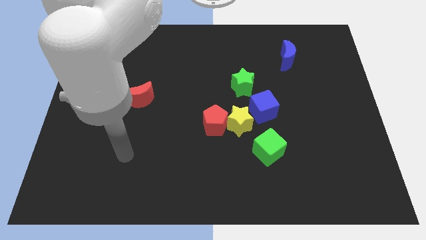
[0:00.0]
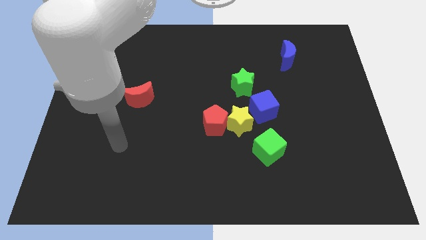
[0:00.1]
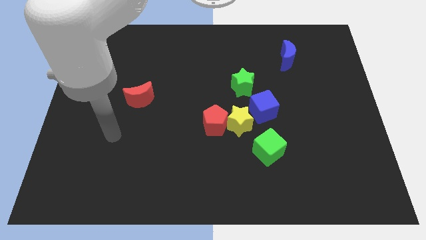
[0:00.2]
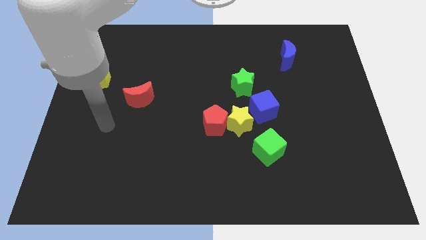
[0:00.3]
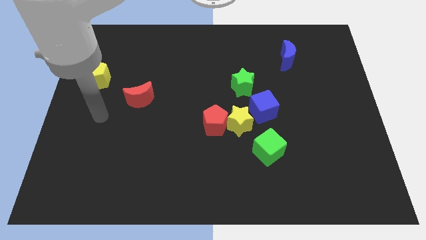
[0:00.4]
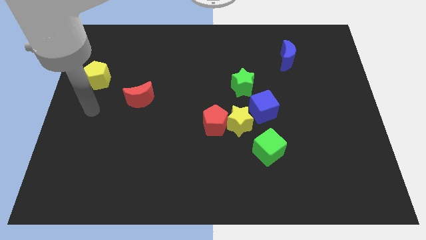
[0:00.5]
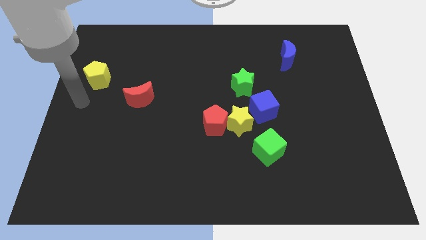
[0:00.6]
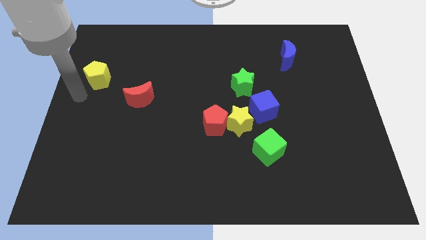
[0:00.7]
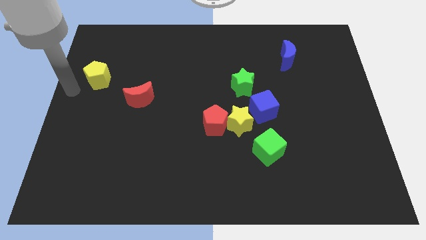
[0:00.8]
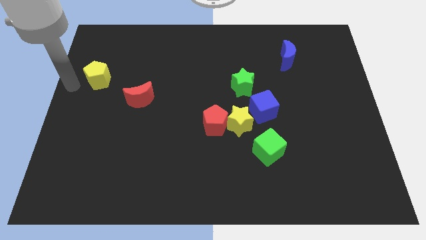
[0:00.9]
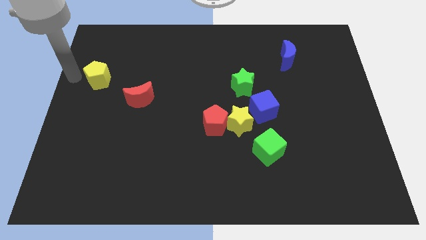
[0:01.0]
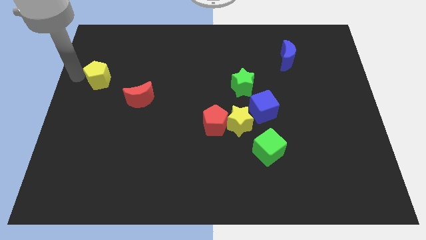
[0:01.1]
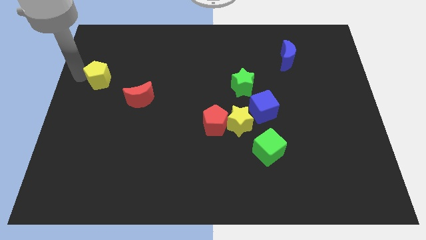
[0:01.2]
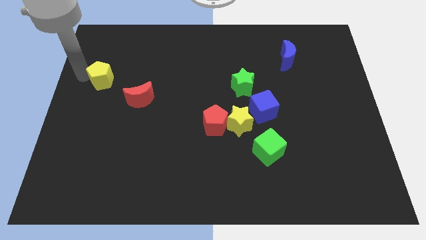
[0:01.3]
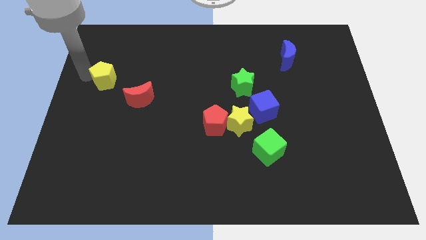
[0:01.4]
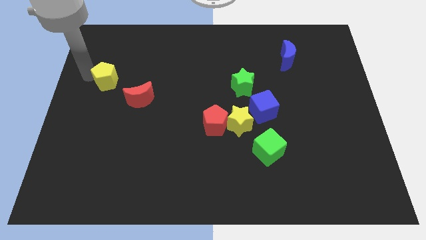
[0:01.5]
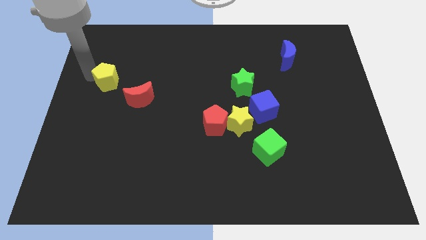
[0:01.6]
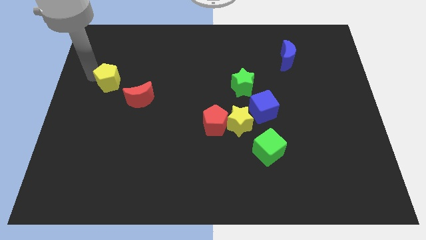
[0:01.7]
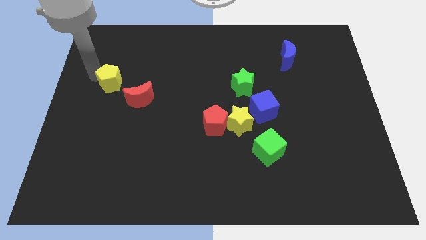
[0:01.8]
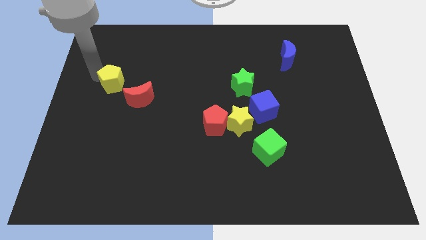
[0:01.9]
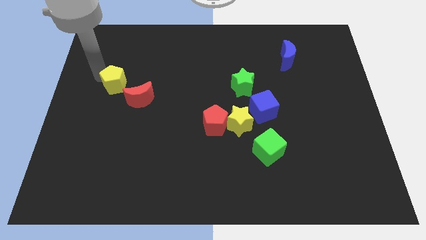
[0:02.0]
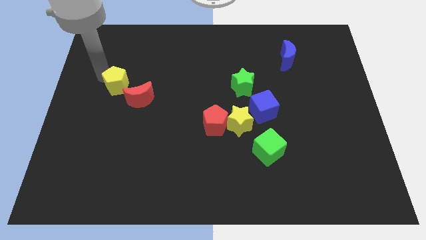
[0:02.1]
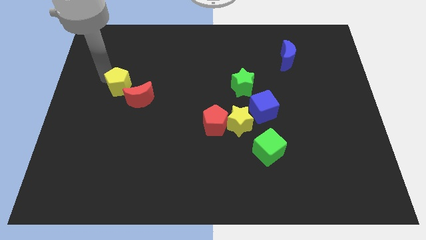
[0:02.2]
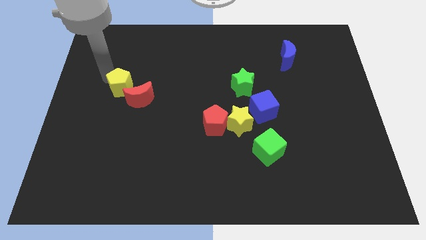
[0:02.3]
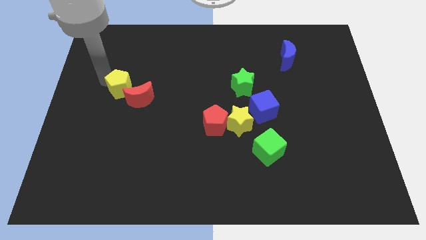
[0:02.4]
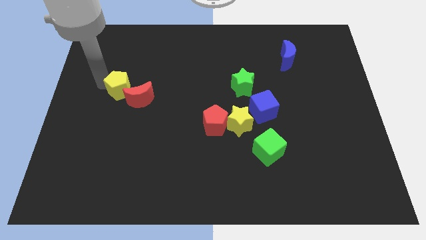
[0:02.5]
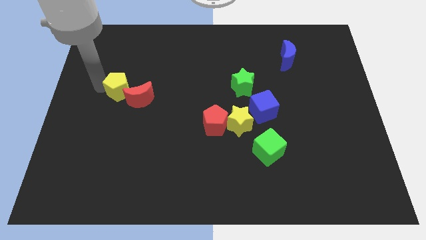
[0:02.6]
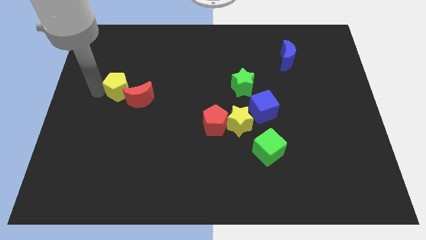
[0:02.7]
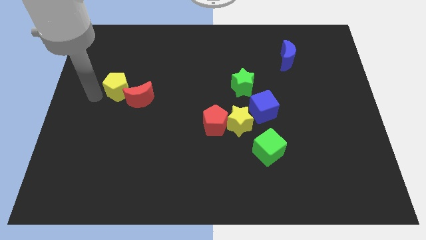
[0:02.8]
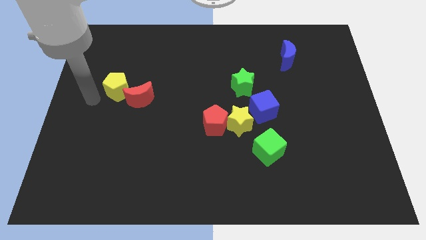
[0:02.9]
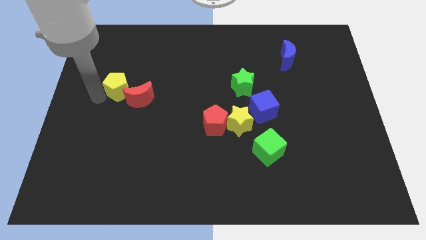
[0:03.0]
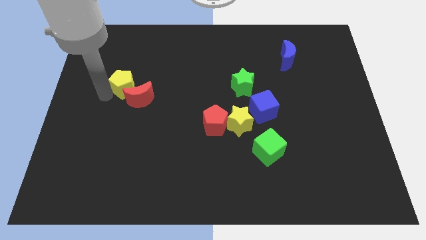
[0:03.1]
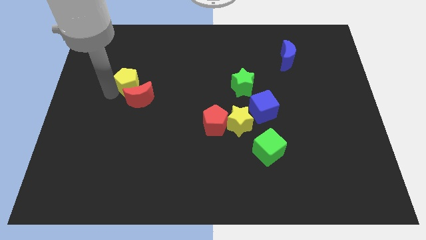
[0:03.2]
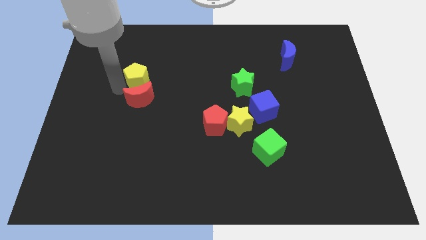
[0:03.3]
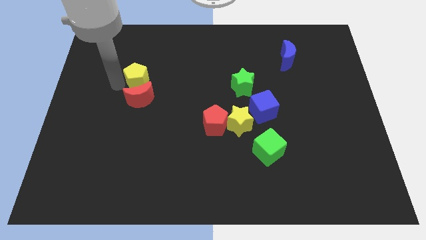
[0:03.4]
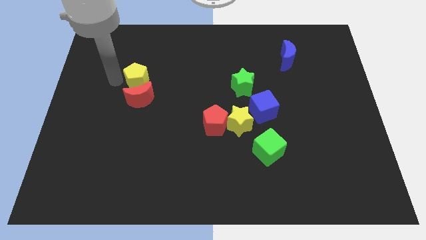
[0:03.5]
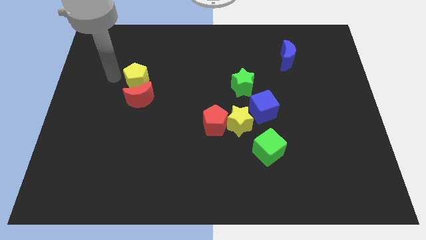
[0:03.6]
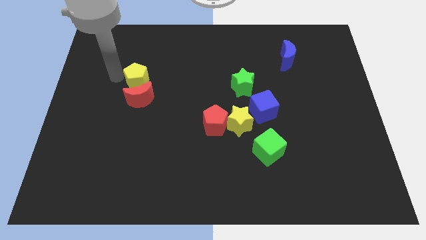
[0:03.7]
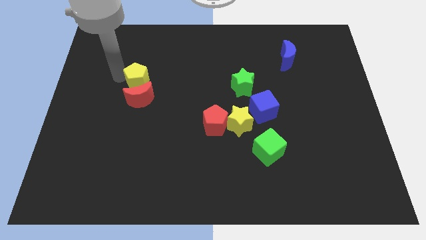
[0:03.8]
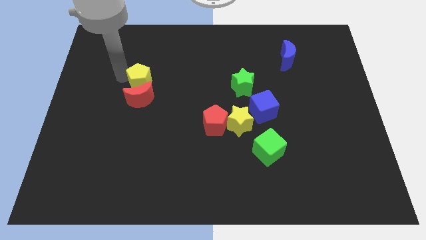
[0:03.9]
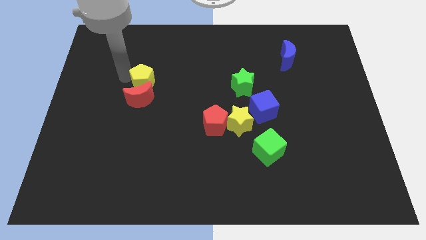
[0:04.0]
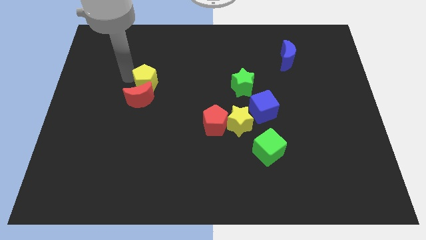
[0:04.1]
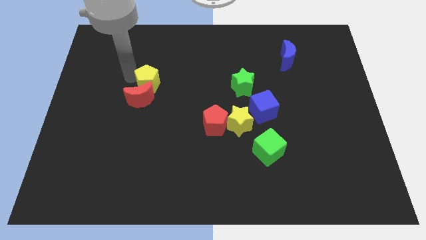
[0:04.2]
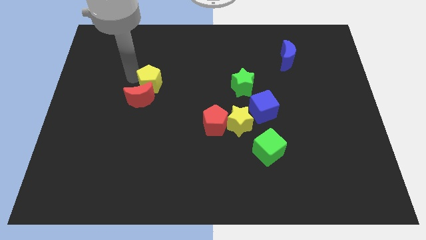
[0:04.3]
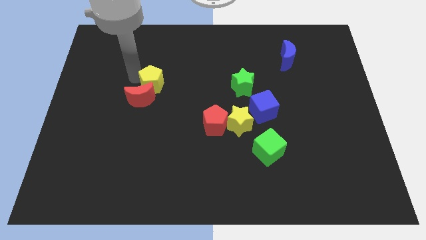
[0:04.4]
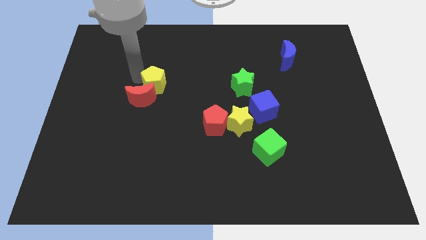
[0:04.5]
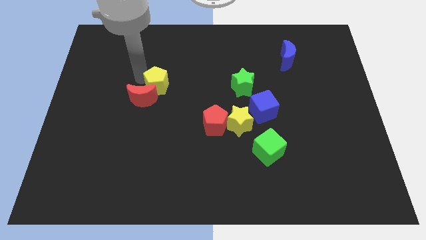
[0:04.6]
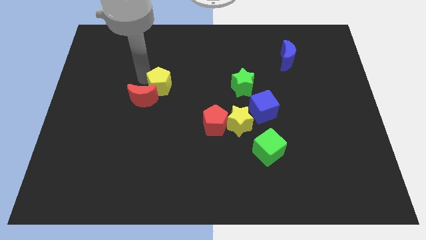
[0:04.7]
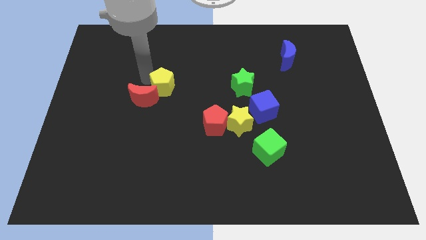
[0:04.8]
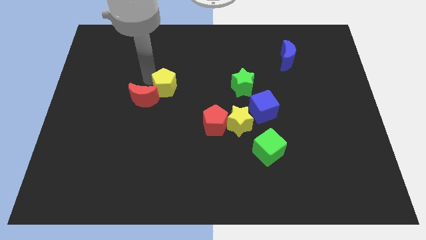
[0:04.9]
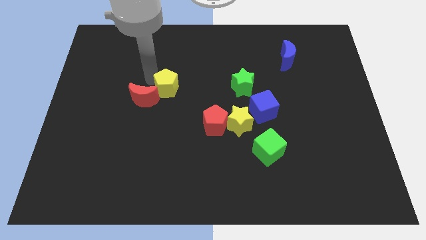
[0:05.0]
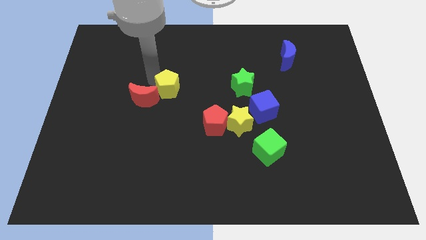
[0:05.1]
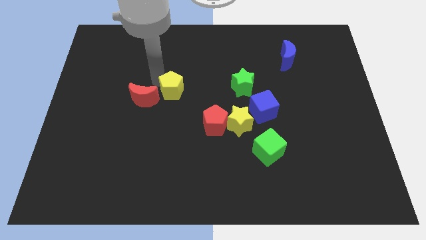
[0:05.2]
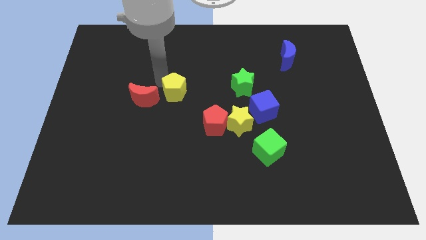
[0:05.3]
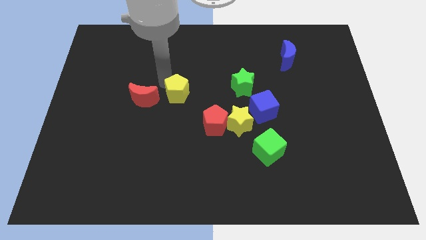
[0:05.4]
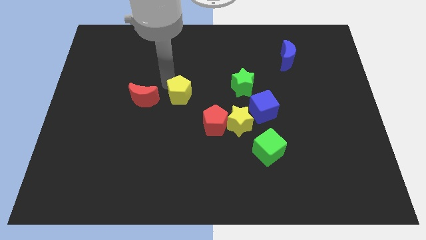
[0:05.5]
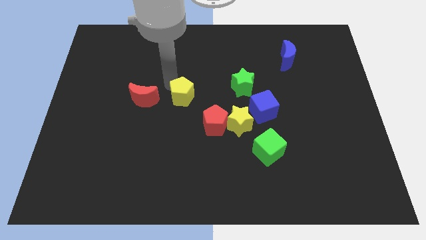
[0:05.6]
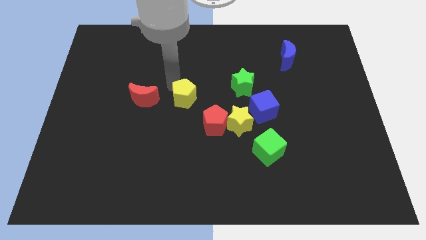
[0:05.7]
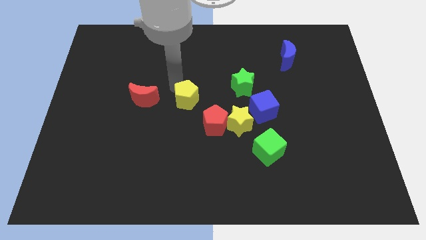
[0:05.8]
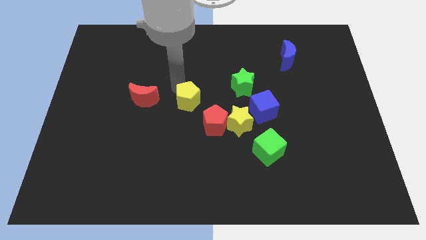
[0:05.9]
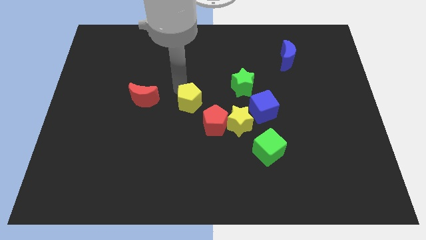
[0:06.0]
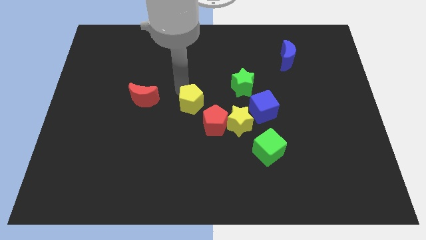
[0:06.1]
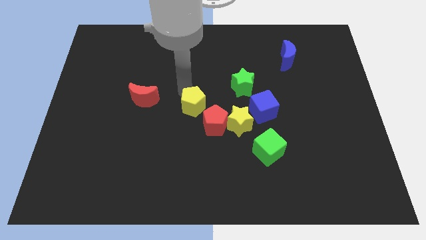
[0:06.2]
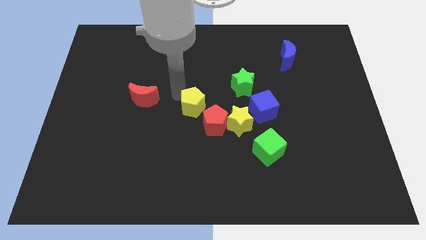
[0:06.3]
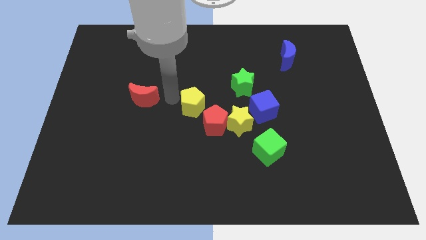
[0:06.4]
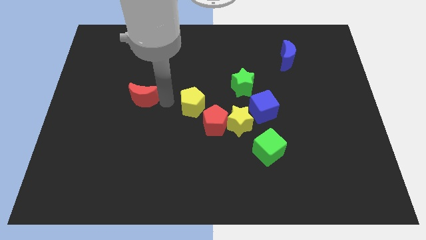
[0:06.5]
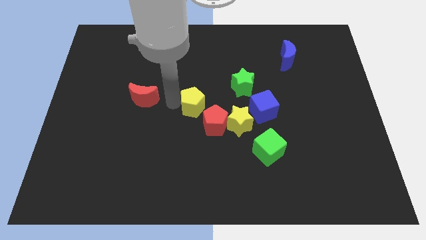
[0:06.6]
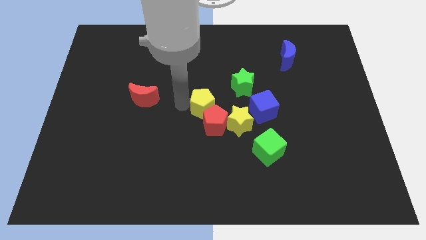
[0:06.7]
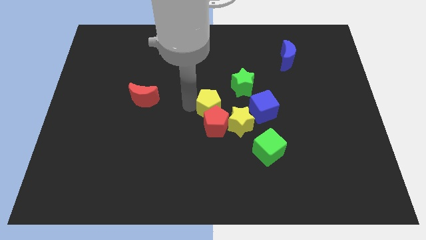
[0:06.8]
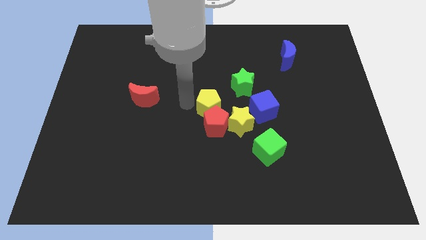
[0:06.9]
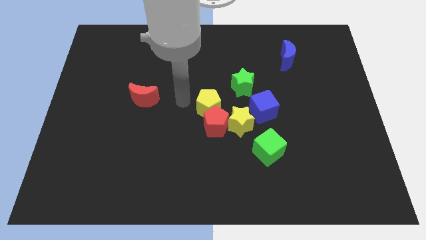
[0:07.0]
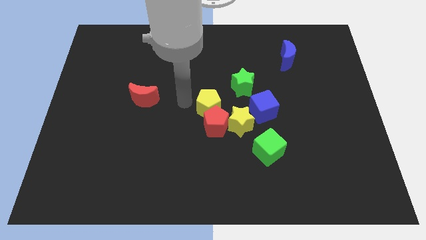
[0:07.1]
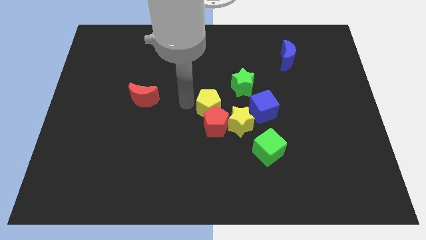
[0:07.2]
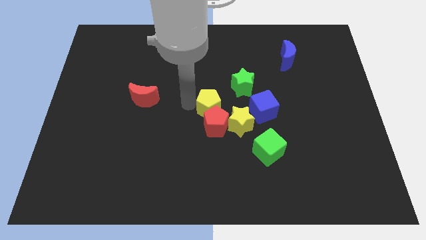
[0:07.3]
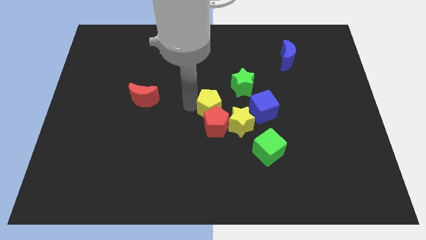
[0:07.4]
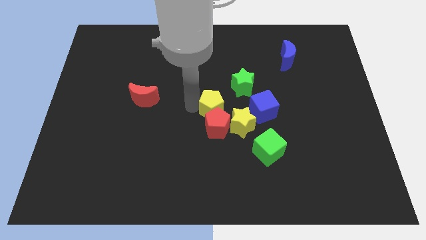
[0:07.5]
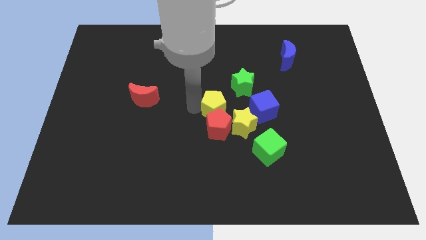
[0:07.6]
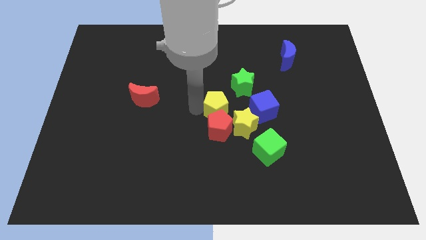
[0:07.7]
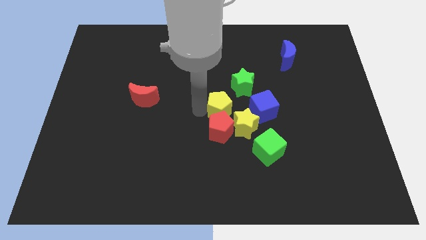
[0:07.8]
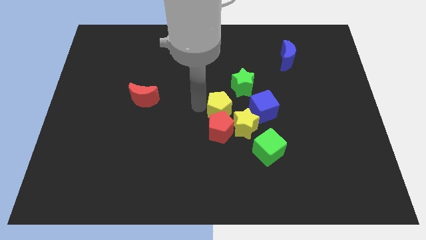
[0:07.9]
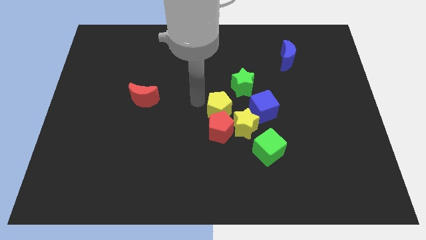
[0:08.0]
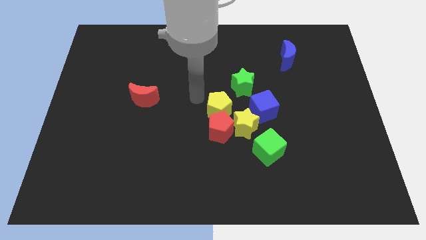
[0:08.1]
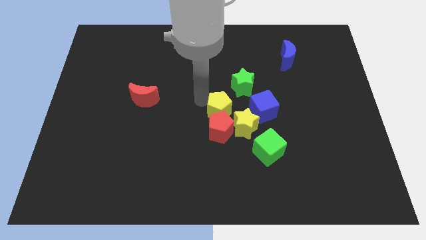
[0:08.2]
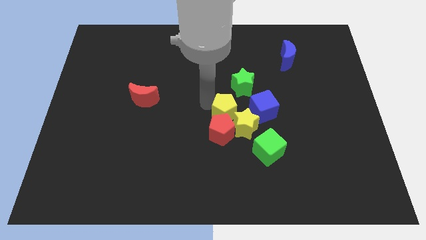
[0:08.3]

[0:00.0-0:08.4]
slide the yellow pentagon to the yellow star
